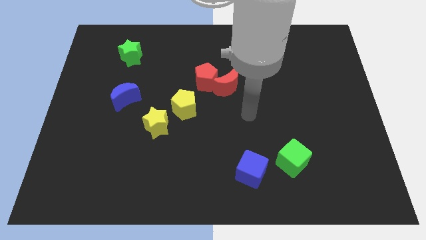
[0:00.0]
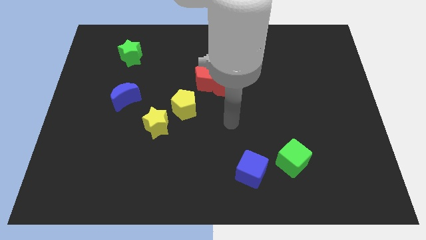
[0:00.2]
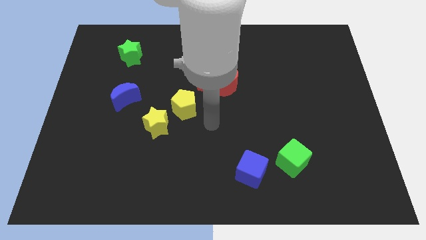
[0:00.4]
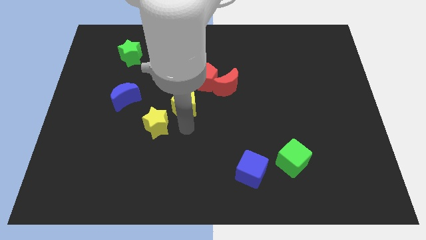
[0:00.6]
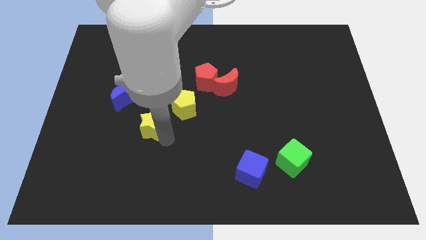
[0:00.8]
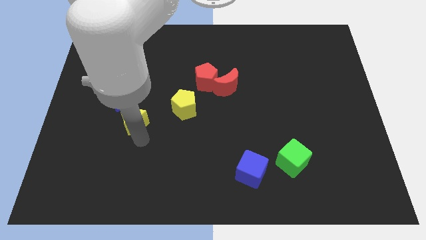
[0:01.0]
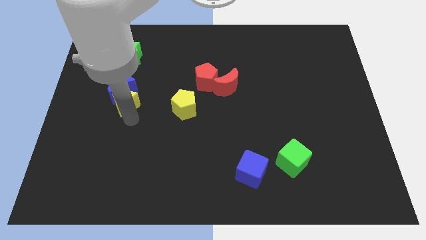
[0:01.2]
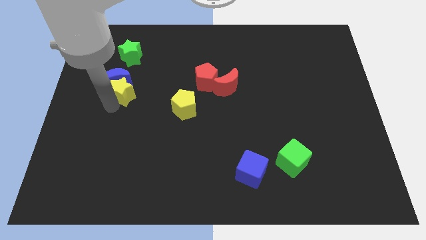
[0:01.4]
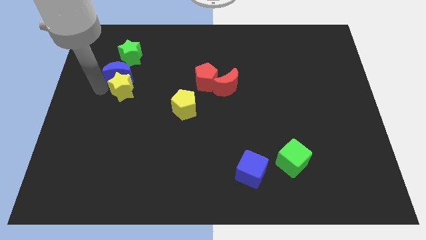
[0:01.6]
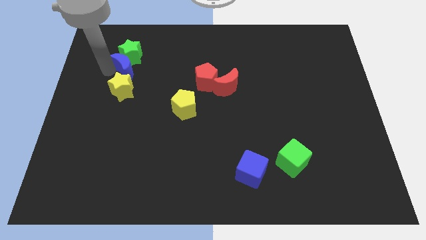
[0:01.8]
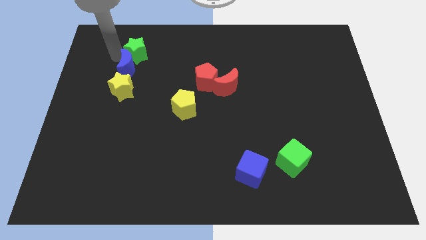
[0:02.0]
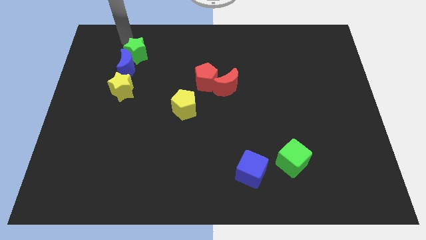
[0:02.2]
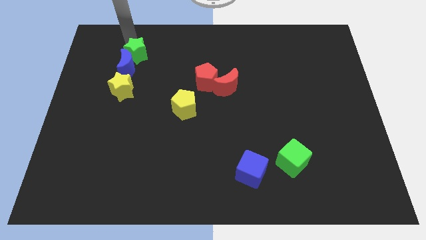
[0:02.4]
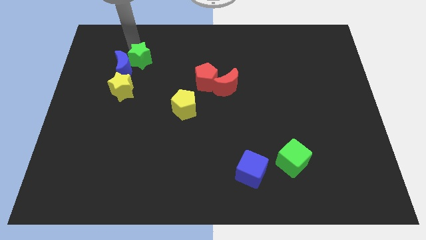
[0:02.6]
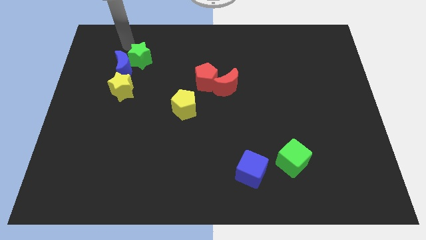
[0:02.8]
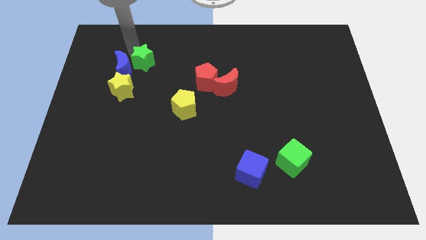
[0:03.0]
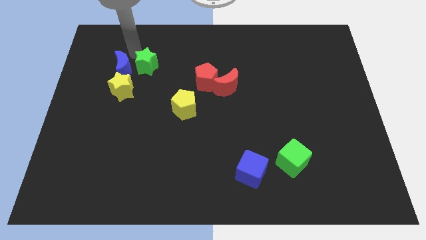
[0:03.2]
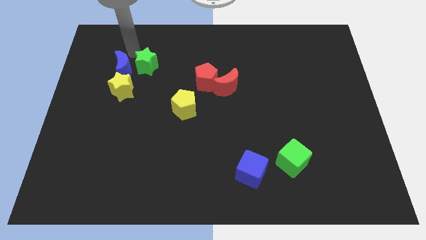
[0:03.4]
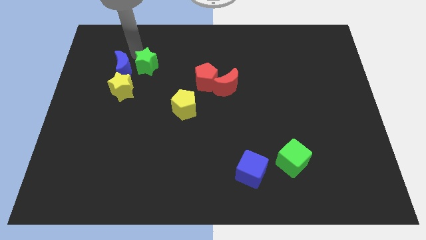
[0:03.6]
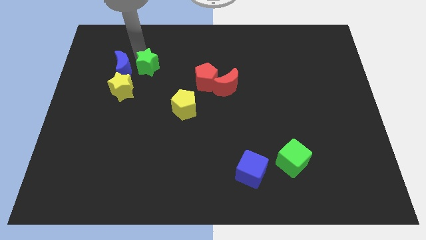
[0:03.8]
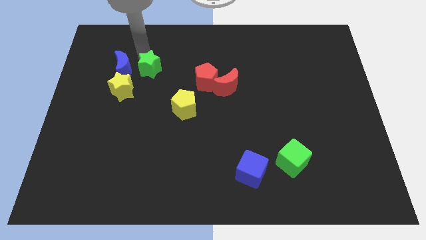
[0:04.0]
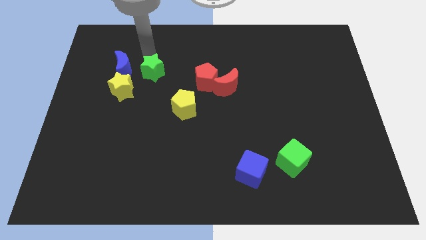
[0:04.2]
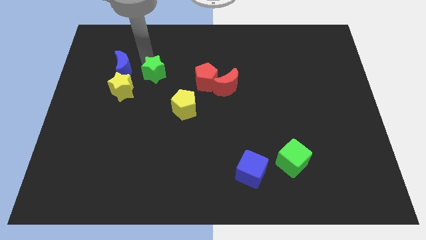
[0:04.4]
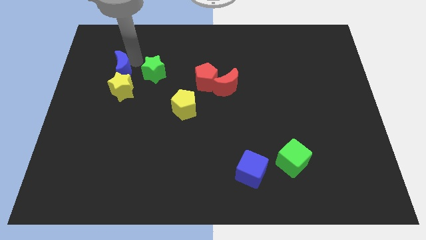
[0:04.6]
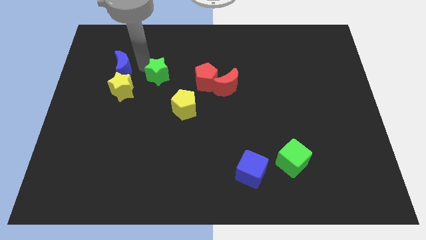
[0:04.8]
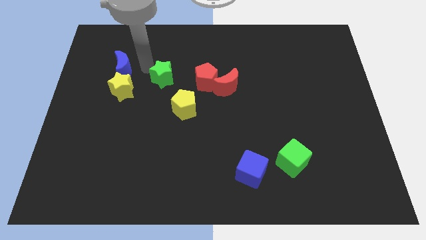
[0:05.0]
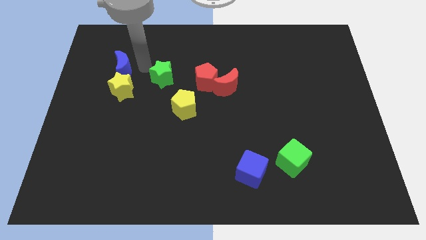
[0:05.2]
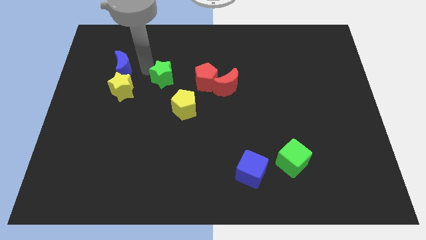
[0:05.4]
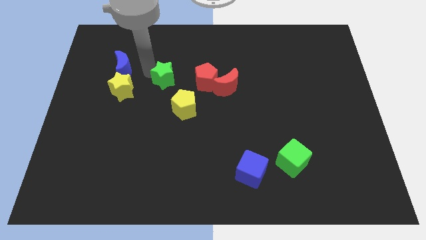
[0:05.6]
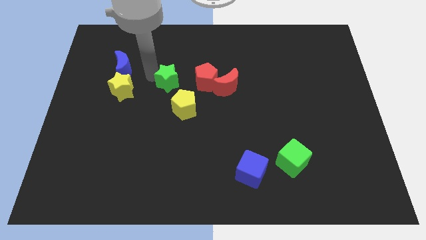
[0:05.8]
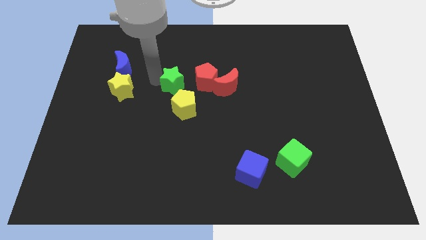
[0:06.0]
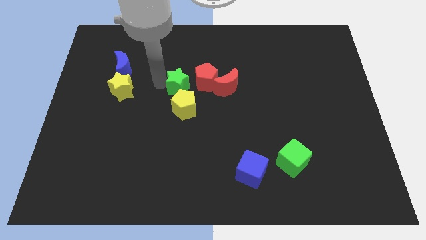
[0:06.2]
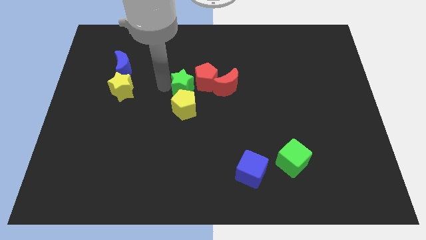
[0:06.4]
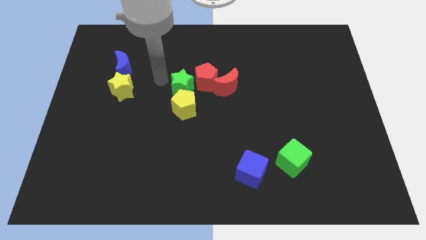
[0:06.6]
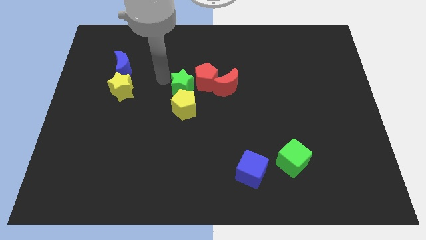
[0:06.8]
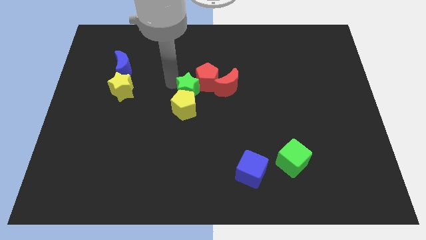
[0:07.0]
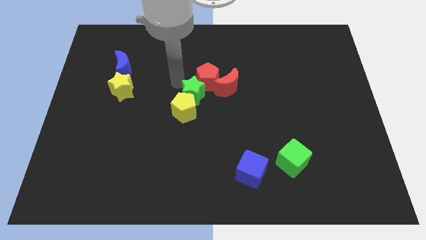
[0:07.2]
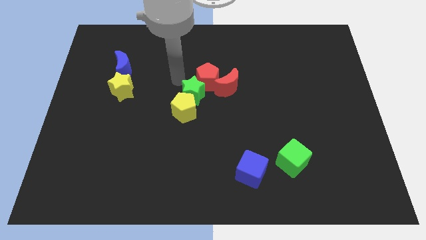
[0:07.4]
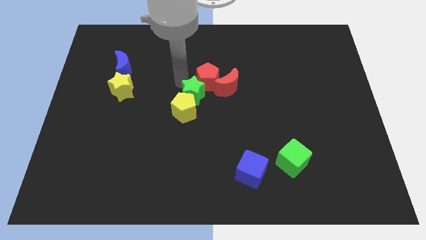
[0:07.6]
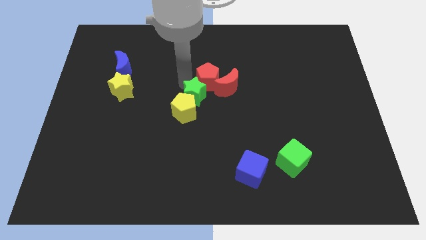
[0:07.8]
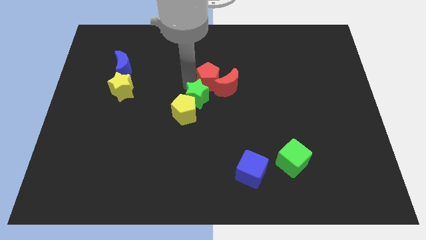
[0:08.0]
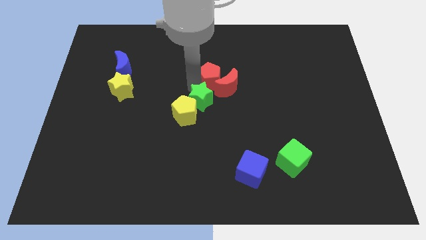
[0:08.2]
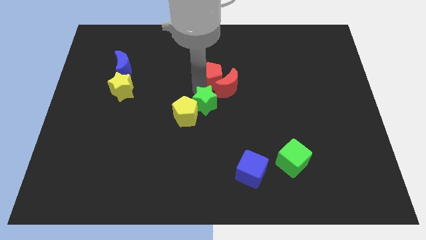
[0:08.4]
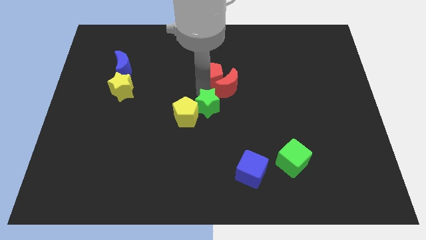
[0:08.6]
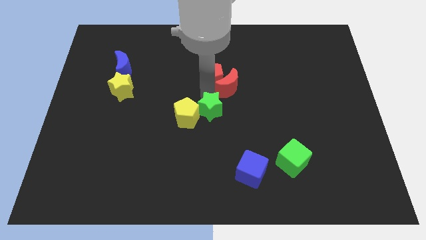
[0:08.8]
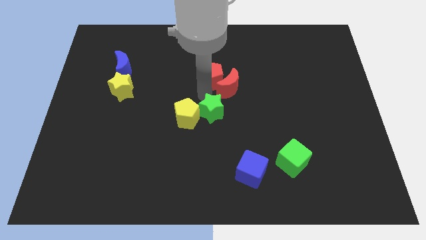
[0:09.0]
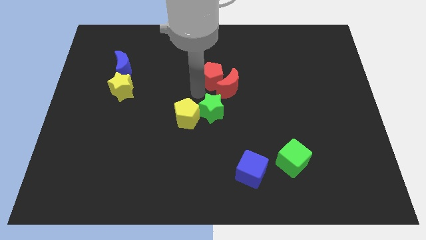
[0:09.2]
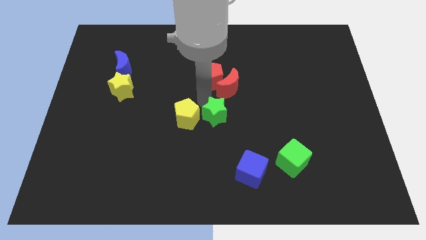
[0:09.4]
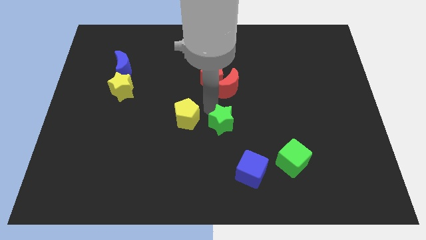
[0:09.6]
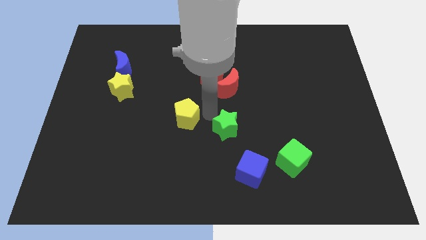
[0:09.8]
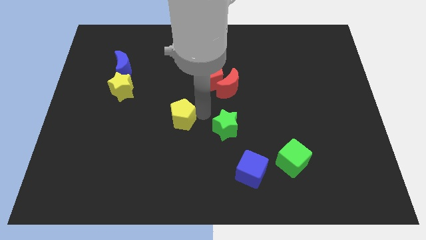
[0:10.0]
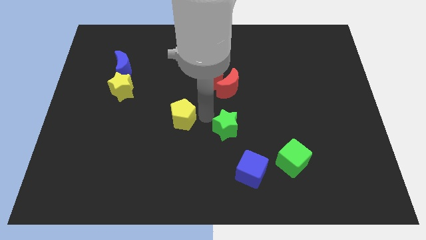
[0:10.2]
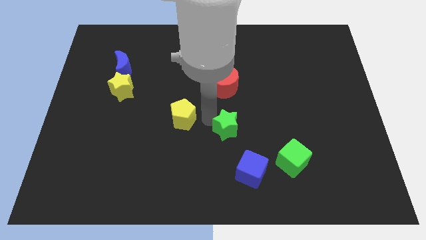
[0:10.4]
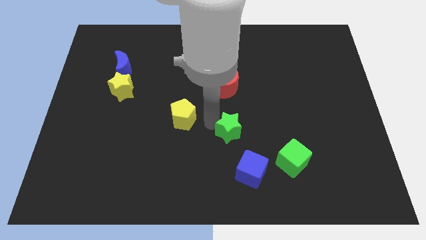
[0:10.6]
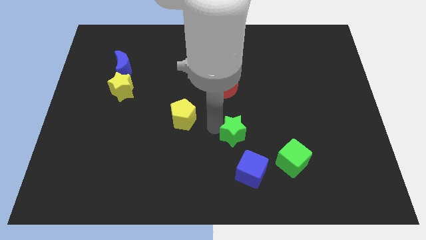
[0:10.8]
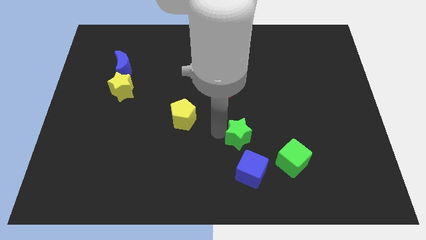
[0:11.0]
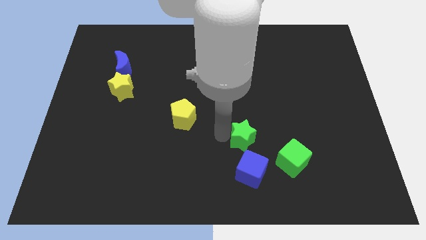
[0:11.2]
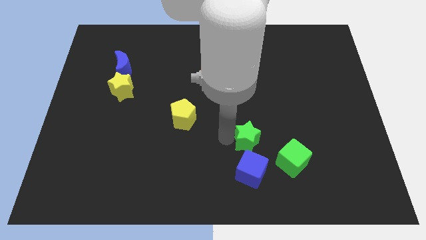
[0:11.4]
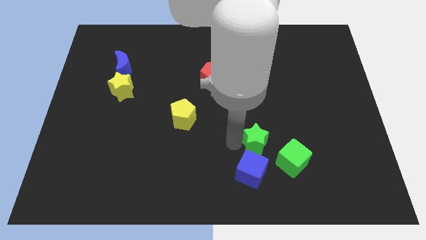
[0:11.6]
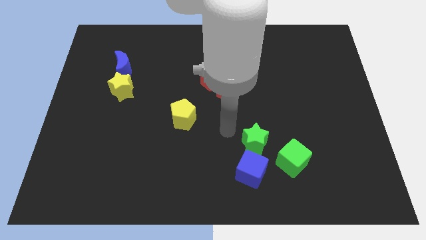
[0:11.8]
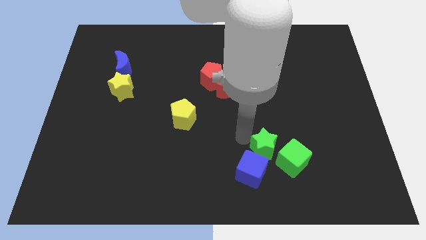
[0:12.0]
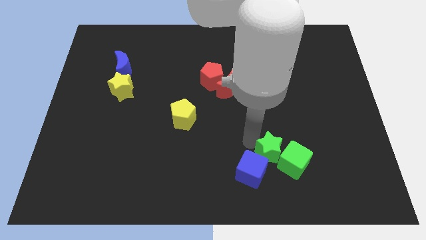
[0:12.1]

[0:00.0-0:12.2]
slide the green star close to the green cube

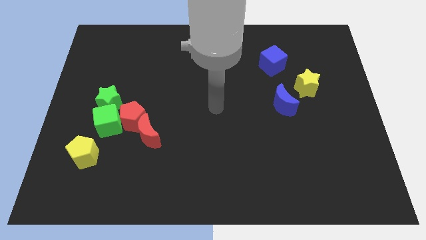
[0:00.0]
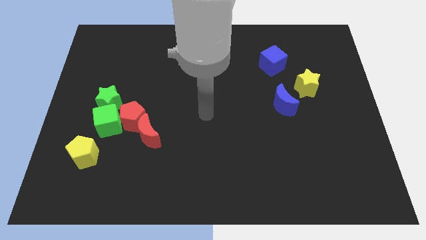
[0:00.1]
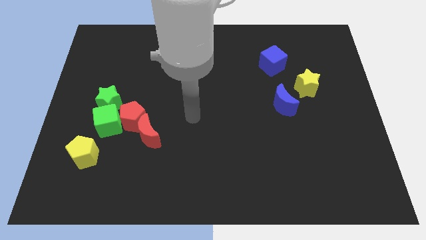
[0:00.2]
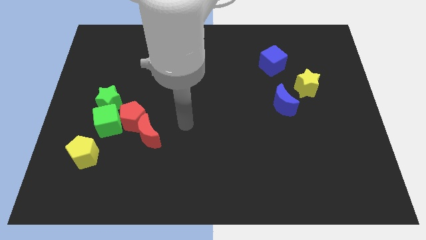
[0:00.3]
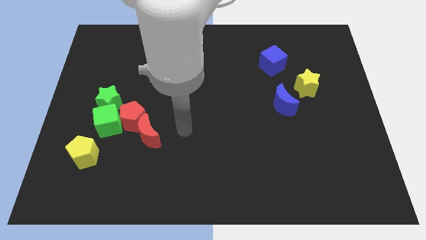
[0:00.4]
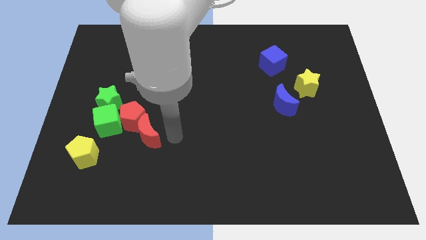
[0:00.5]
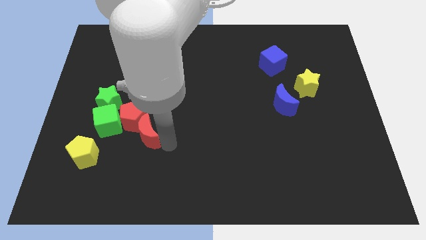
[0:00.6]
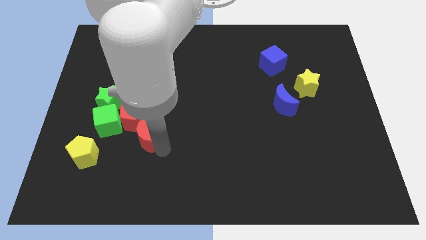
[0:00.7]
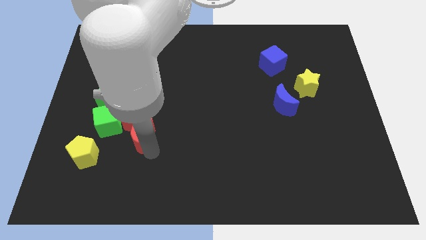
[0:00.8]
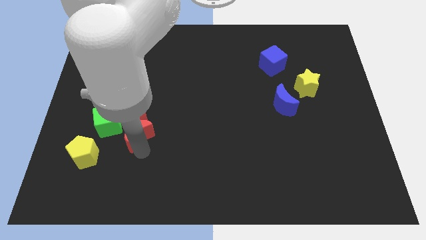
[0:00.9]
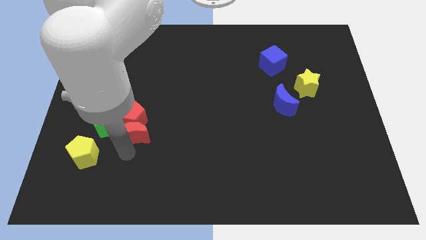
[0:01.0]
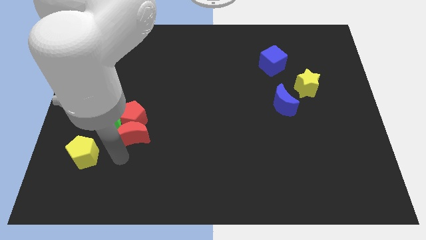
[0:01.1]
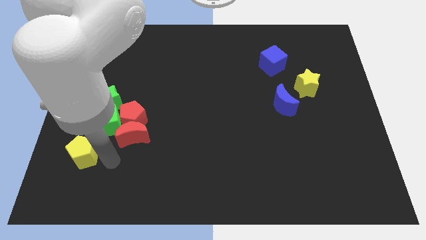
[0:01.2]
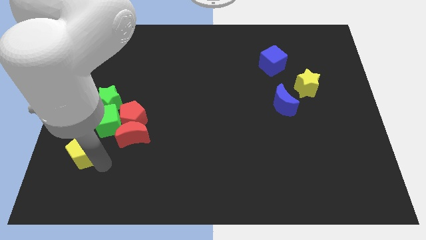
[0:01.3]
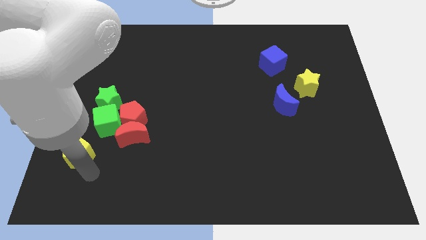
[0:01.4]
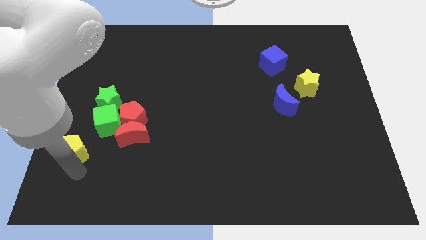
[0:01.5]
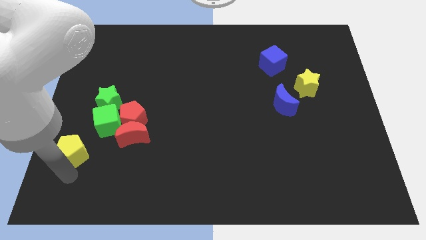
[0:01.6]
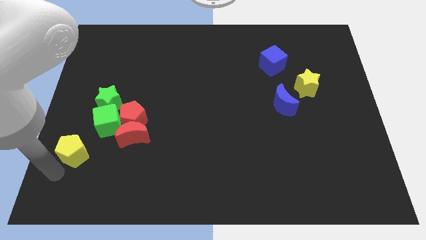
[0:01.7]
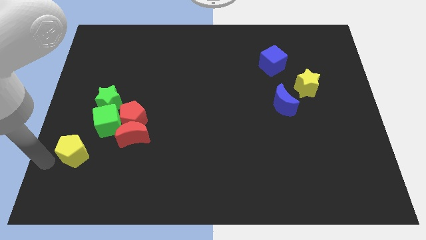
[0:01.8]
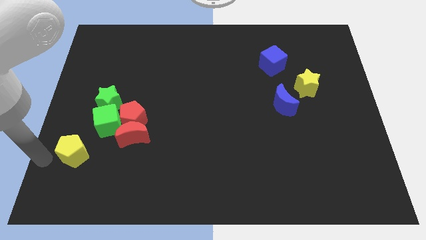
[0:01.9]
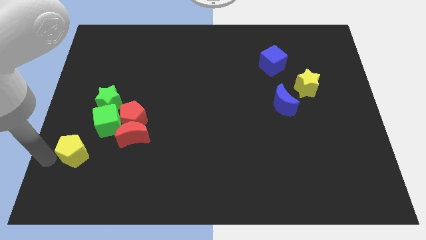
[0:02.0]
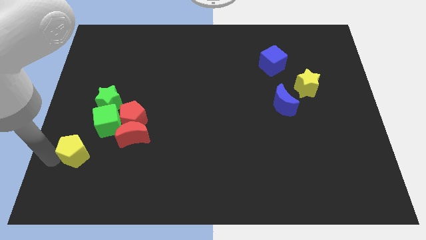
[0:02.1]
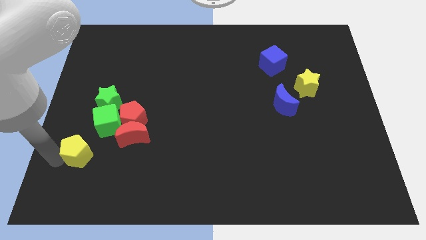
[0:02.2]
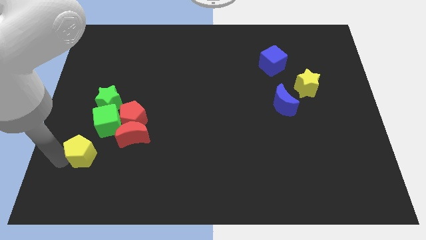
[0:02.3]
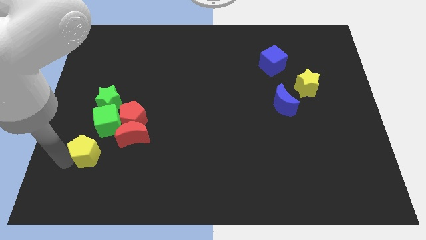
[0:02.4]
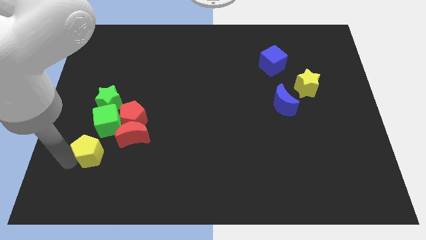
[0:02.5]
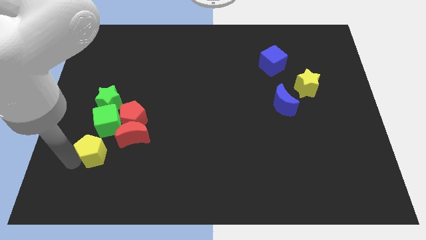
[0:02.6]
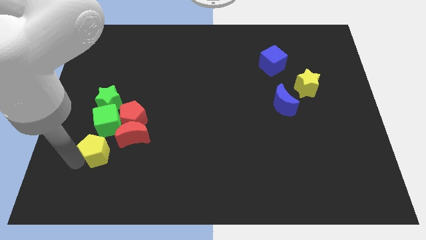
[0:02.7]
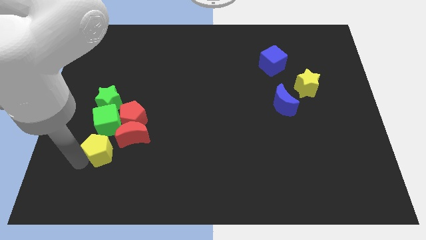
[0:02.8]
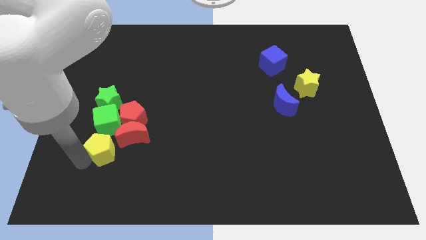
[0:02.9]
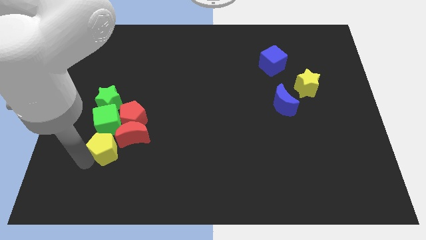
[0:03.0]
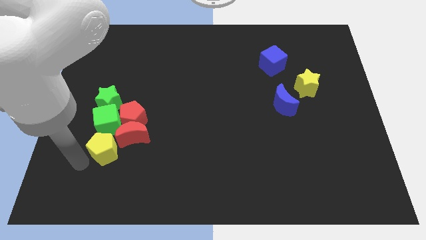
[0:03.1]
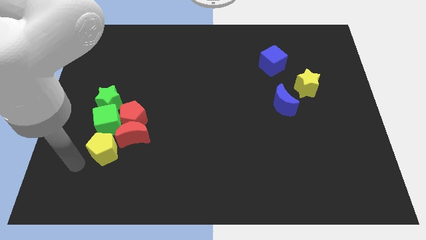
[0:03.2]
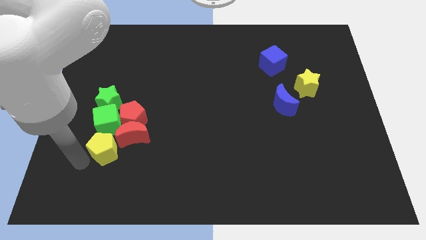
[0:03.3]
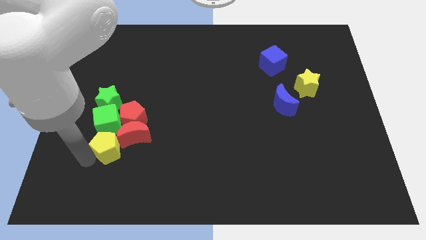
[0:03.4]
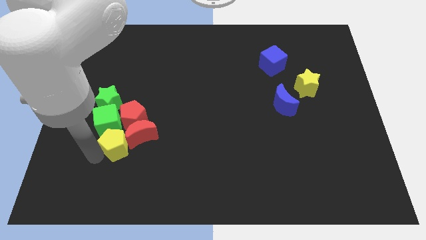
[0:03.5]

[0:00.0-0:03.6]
push the yellow pentagon close to the red moon
